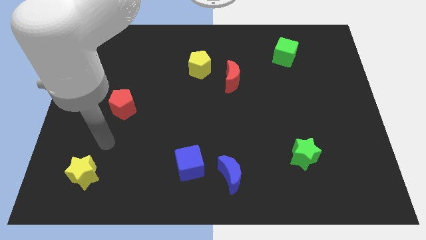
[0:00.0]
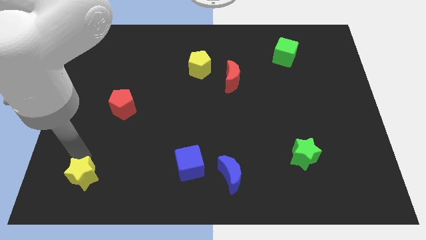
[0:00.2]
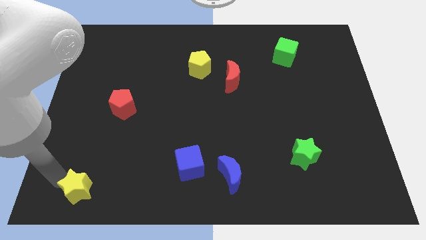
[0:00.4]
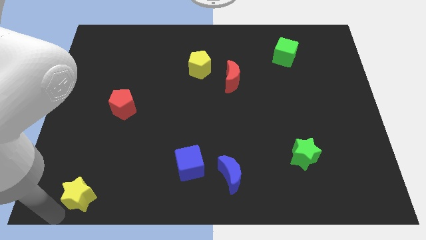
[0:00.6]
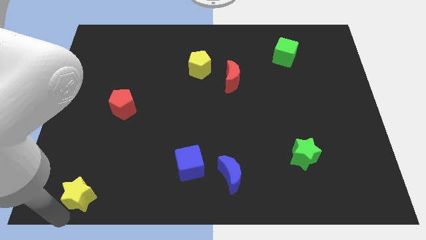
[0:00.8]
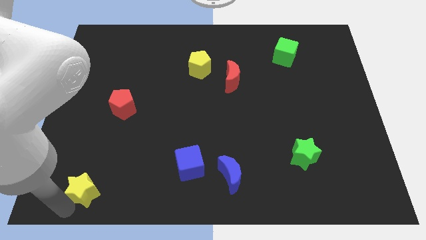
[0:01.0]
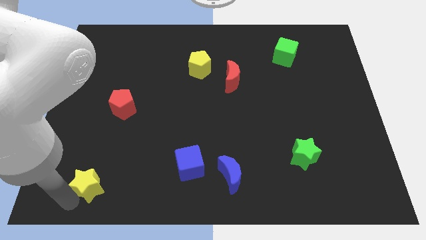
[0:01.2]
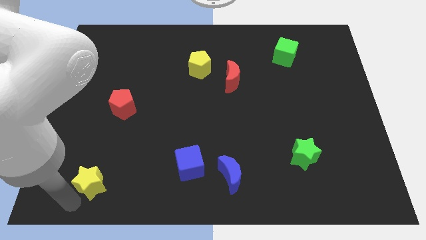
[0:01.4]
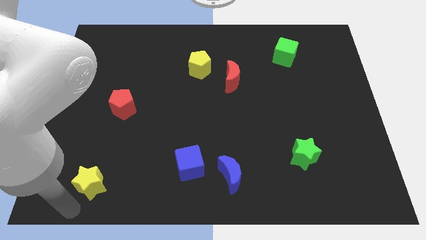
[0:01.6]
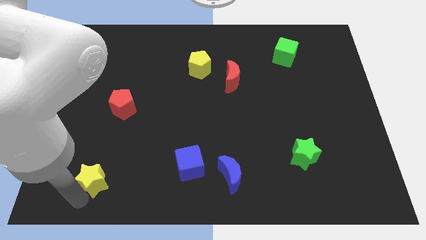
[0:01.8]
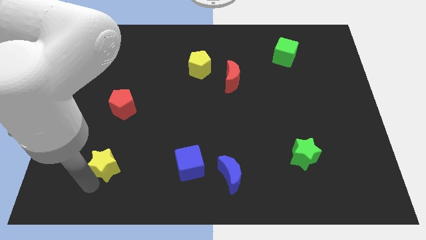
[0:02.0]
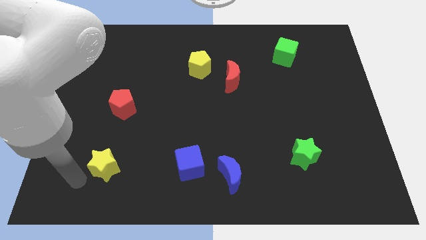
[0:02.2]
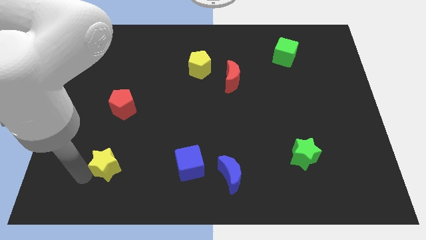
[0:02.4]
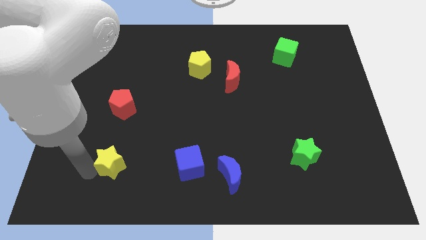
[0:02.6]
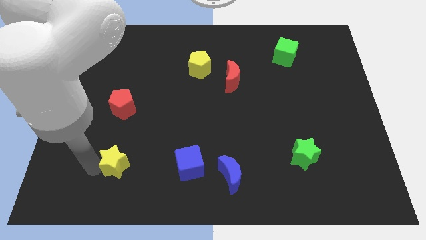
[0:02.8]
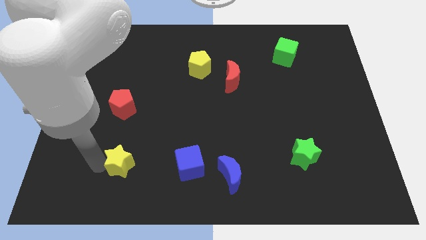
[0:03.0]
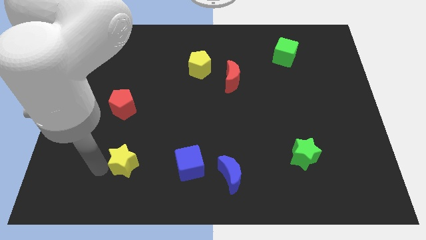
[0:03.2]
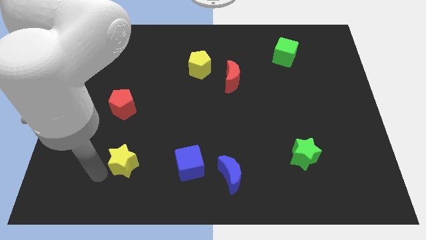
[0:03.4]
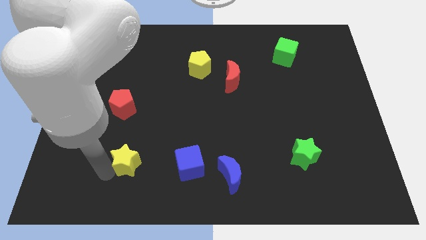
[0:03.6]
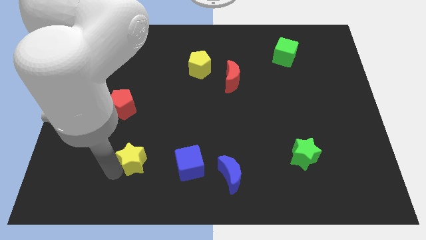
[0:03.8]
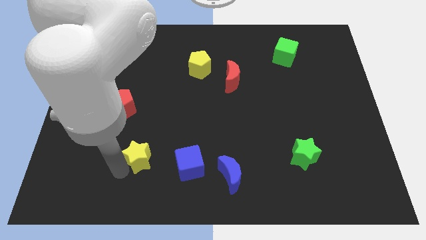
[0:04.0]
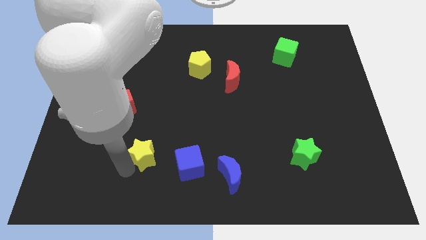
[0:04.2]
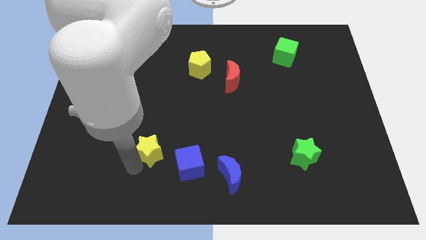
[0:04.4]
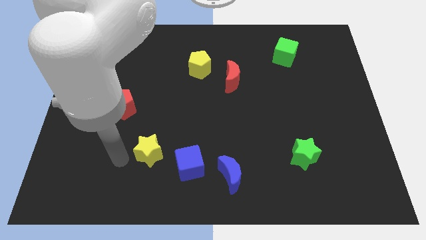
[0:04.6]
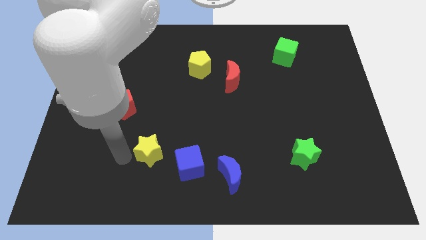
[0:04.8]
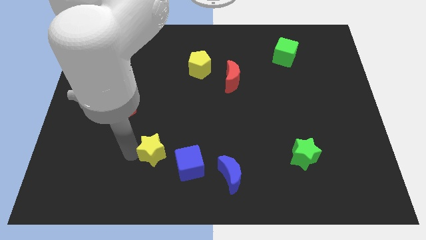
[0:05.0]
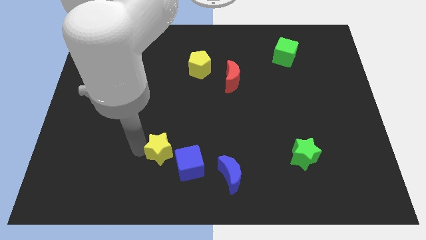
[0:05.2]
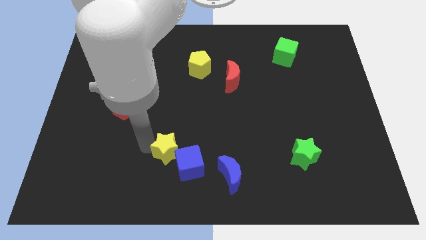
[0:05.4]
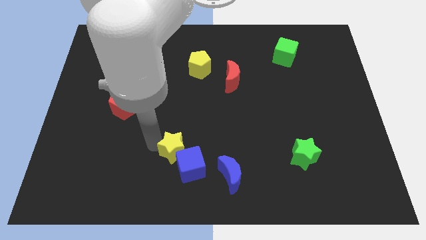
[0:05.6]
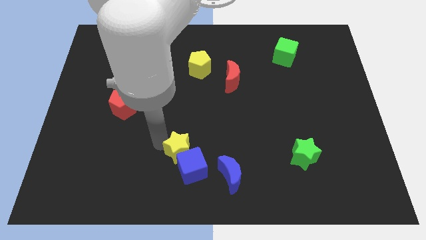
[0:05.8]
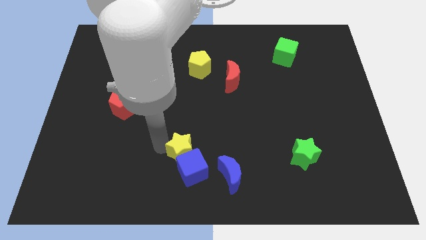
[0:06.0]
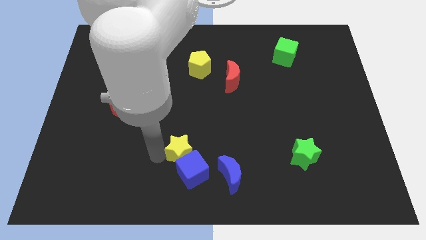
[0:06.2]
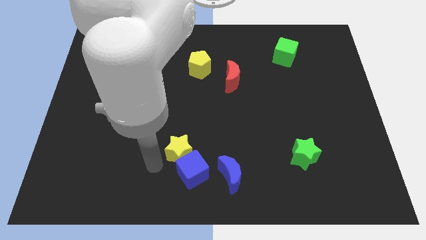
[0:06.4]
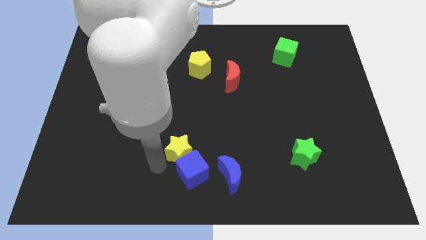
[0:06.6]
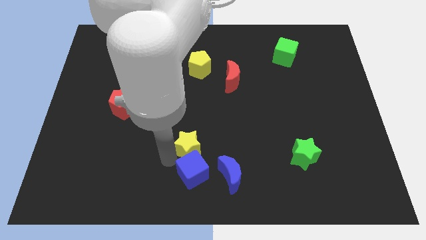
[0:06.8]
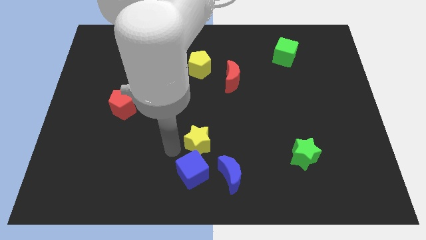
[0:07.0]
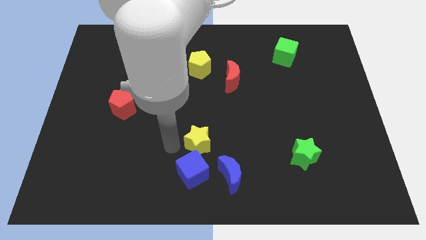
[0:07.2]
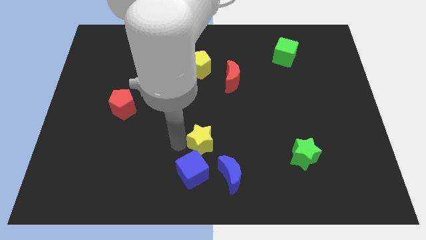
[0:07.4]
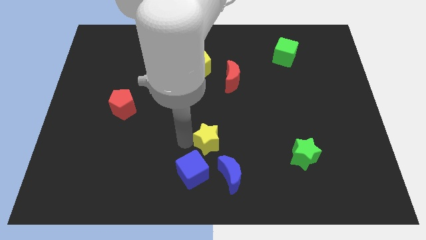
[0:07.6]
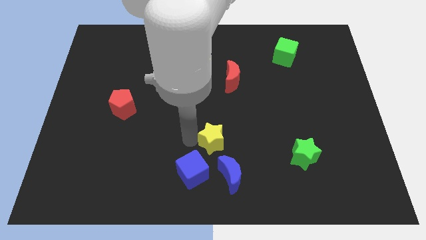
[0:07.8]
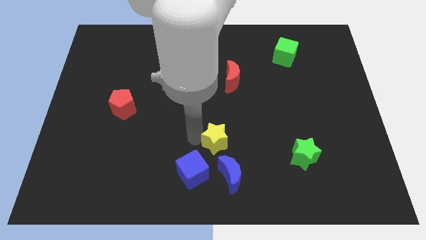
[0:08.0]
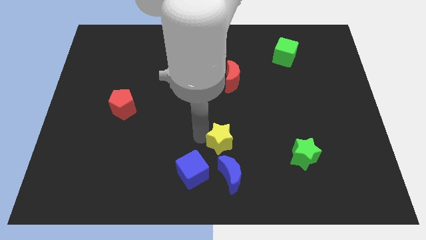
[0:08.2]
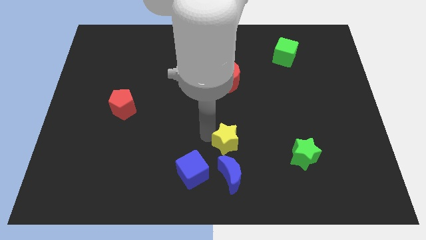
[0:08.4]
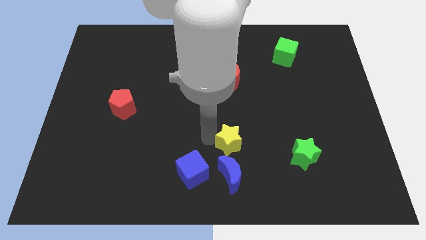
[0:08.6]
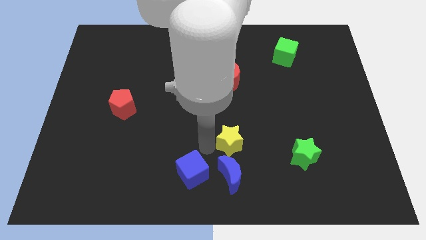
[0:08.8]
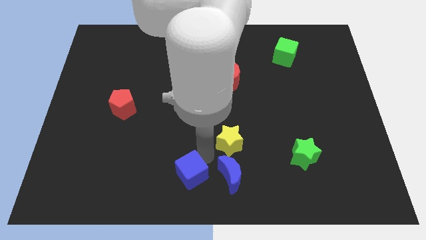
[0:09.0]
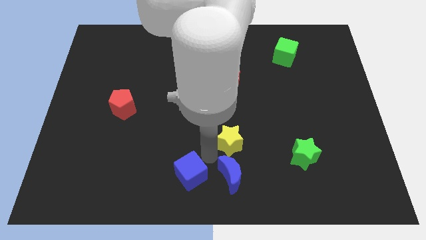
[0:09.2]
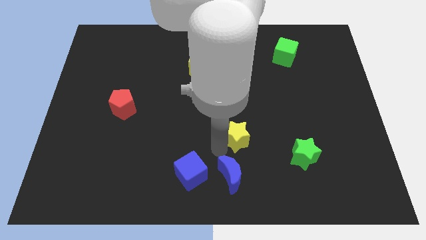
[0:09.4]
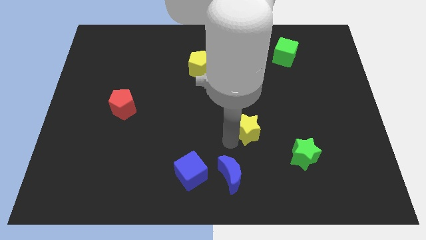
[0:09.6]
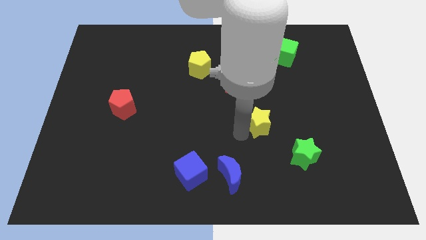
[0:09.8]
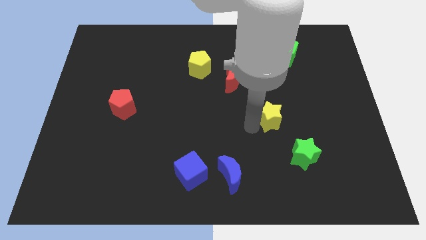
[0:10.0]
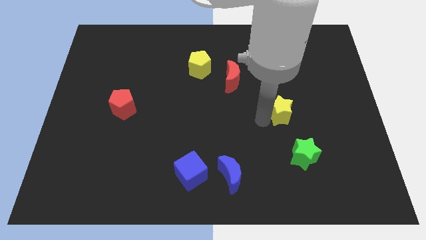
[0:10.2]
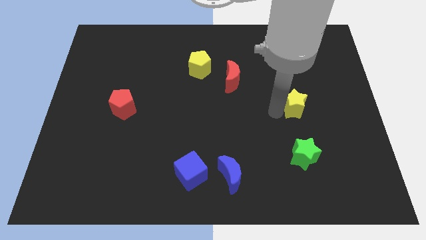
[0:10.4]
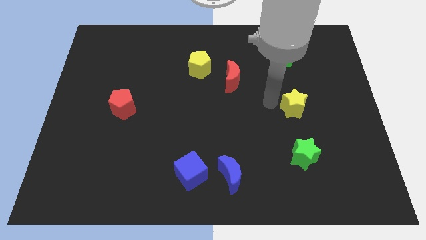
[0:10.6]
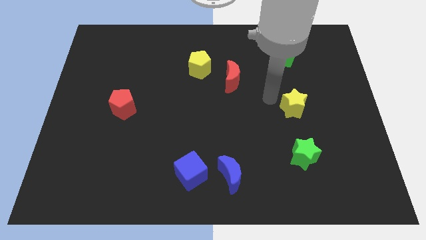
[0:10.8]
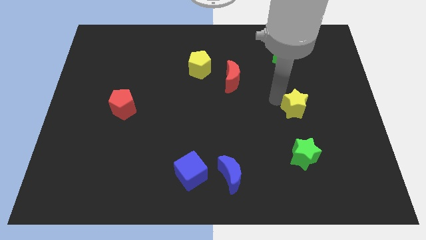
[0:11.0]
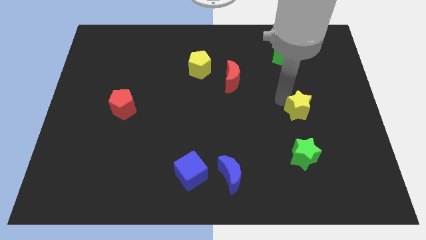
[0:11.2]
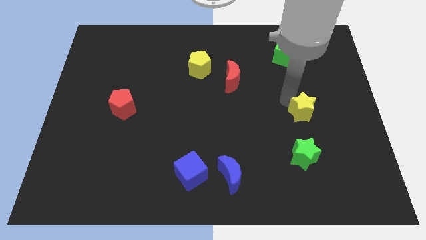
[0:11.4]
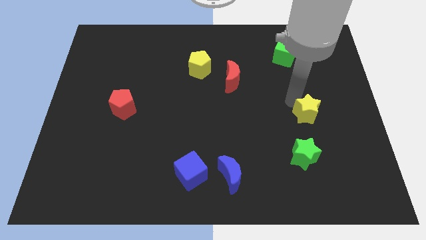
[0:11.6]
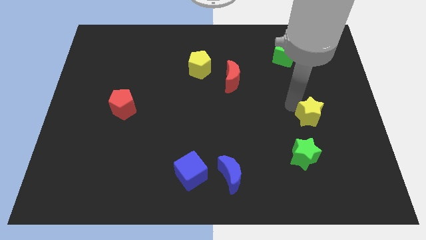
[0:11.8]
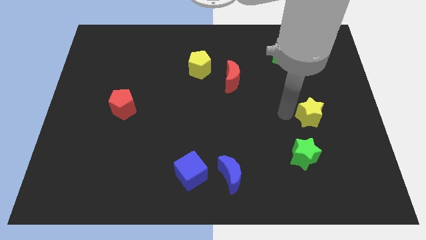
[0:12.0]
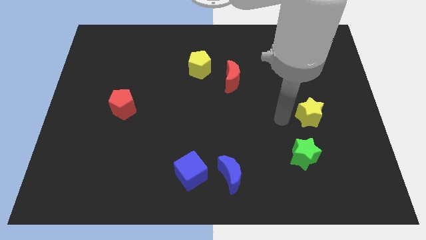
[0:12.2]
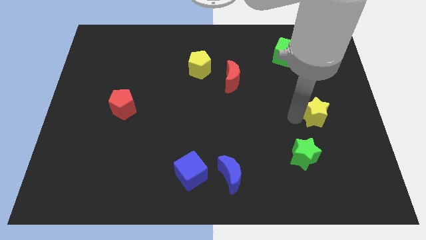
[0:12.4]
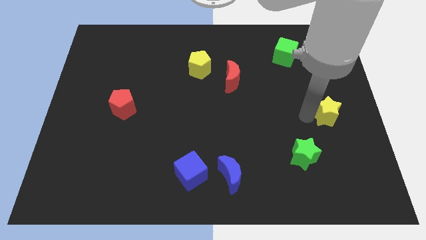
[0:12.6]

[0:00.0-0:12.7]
slide the yellow star to the center right

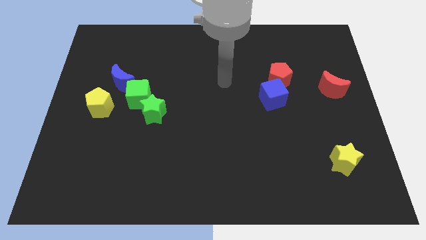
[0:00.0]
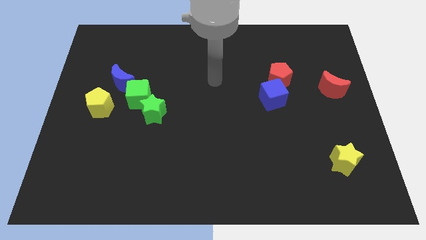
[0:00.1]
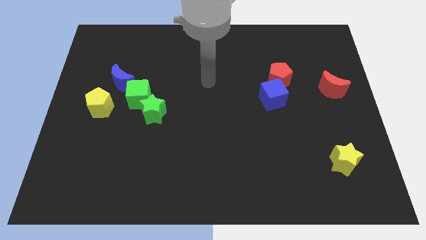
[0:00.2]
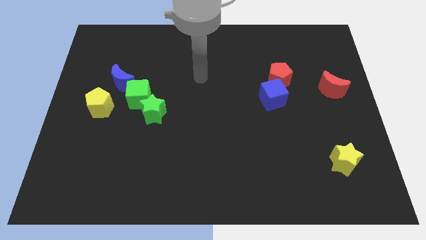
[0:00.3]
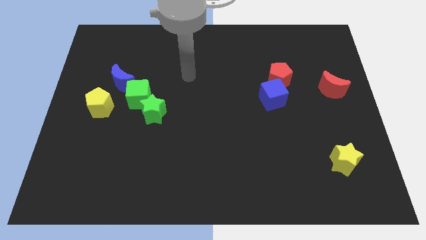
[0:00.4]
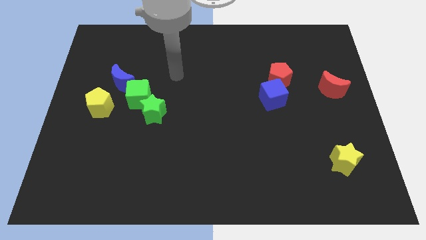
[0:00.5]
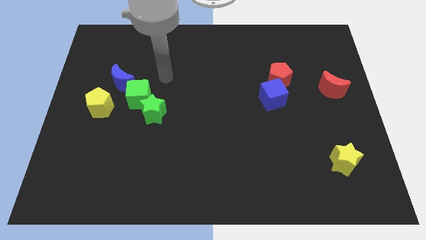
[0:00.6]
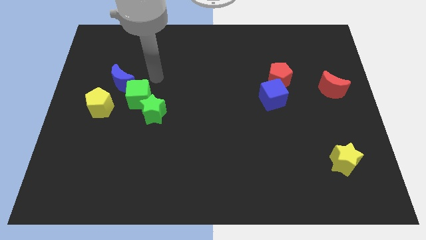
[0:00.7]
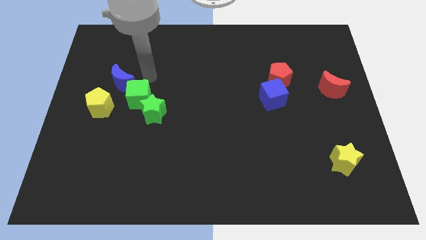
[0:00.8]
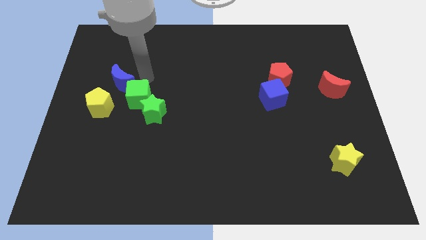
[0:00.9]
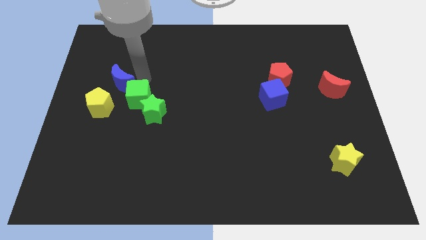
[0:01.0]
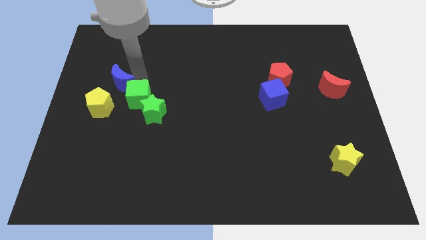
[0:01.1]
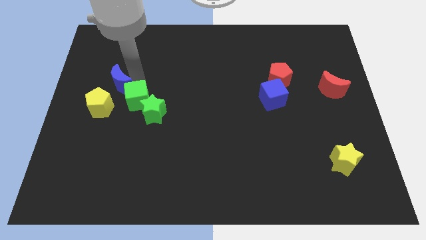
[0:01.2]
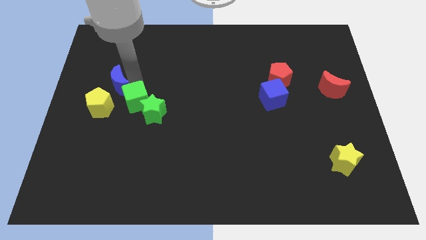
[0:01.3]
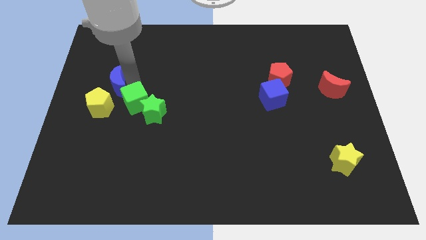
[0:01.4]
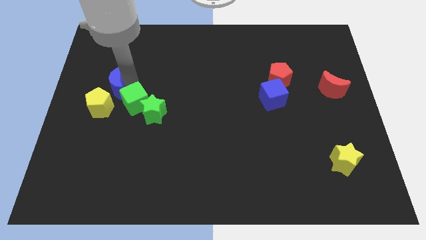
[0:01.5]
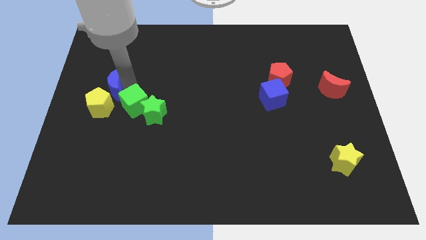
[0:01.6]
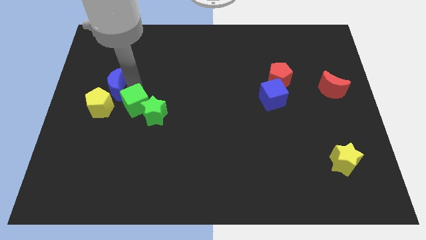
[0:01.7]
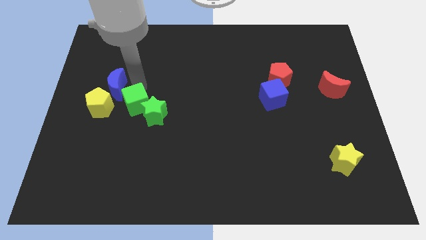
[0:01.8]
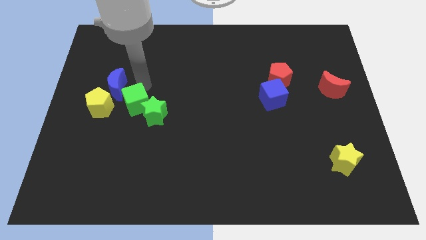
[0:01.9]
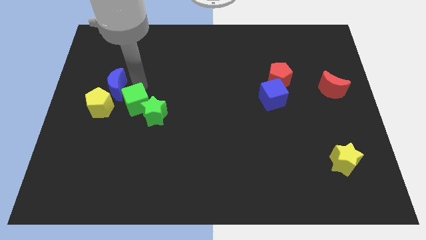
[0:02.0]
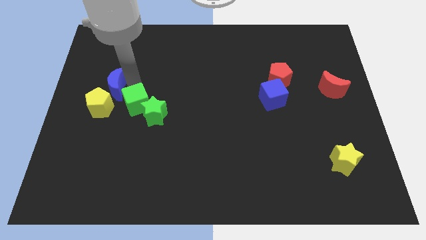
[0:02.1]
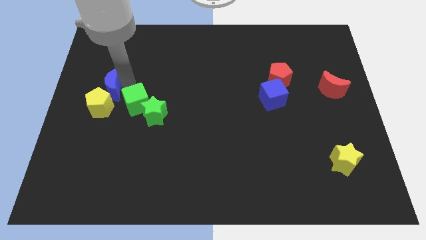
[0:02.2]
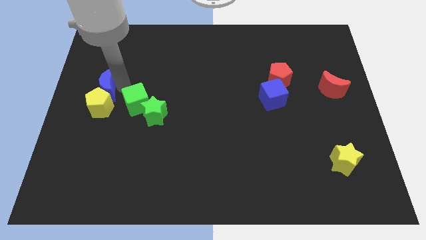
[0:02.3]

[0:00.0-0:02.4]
move the blue moon to the left side
